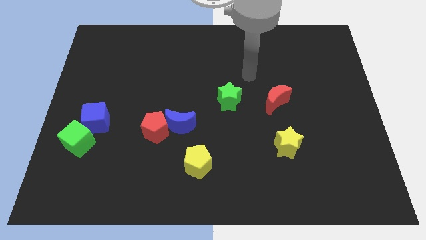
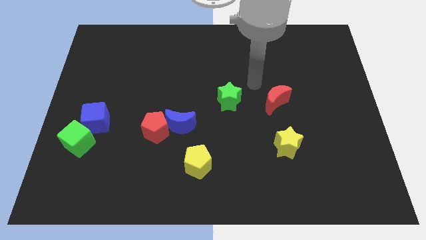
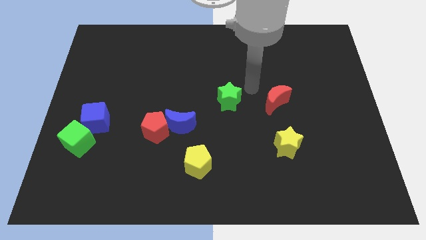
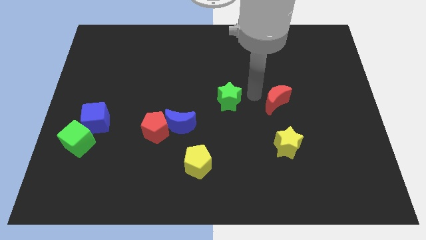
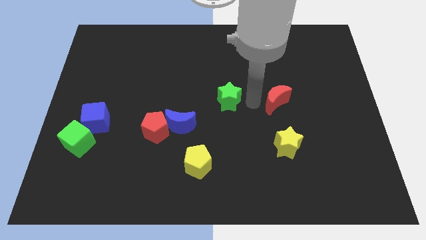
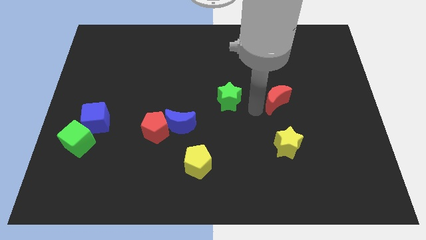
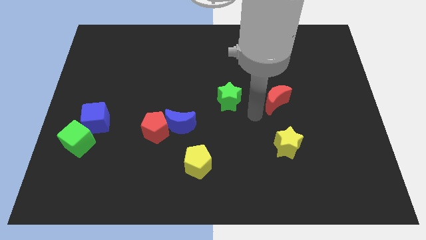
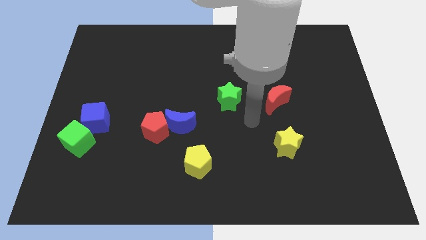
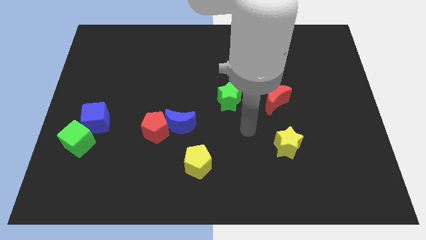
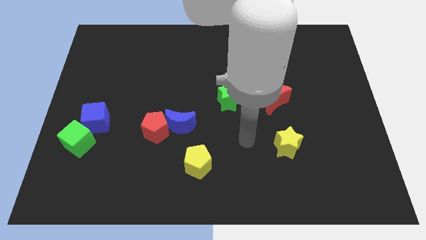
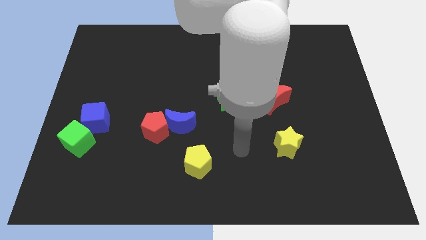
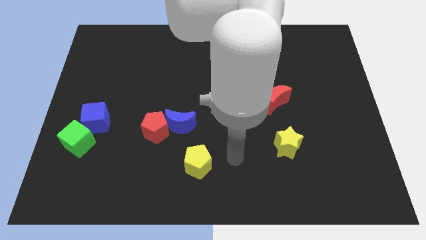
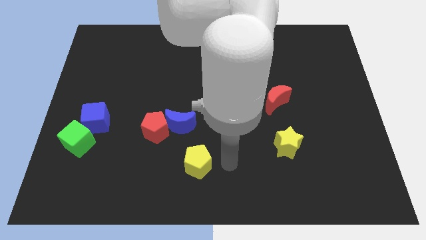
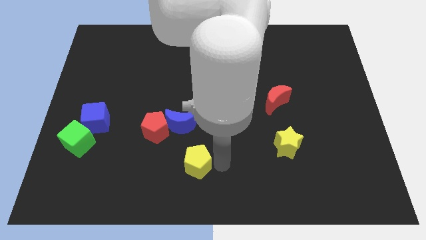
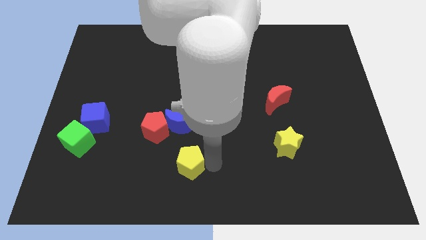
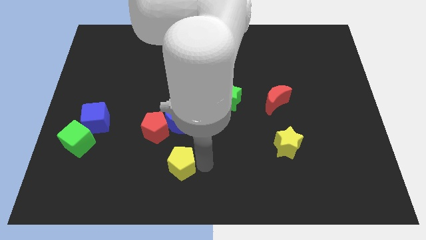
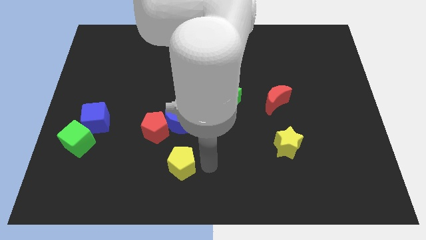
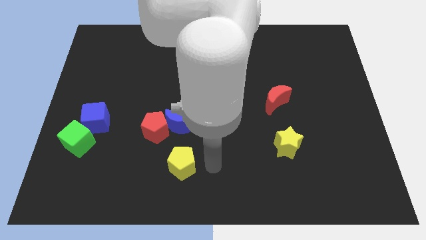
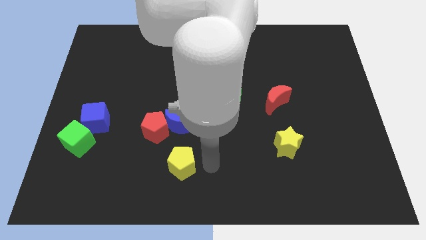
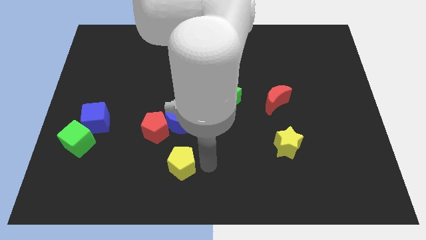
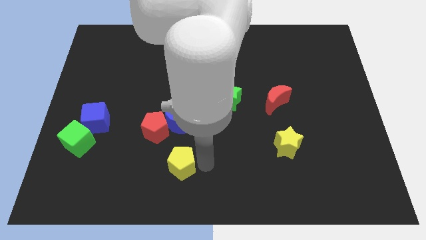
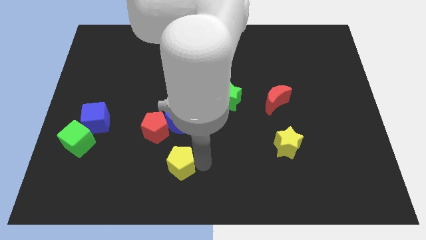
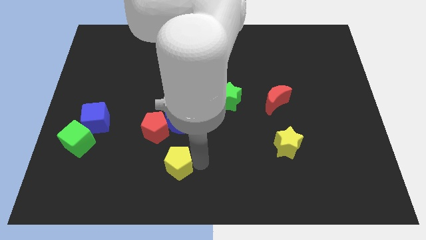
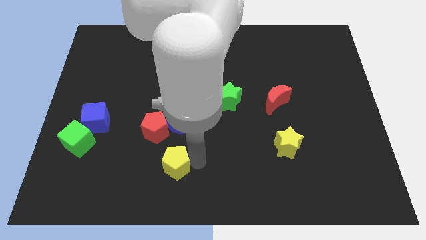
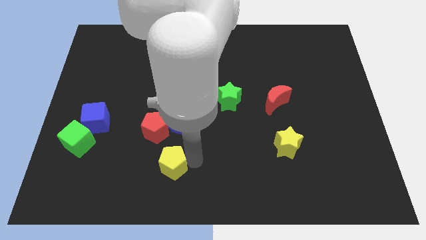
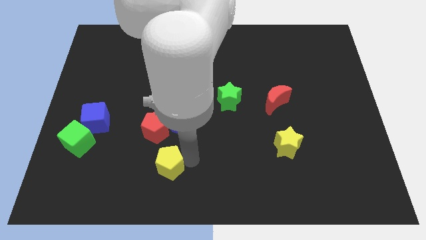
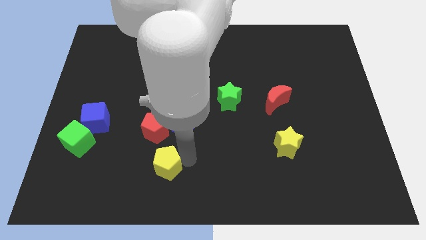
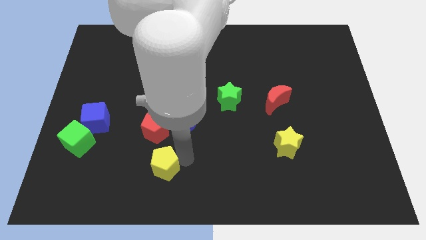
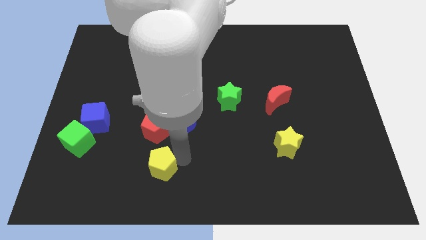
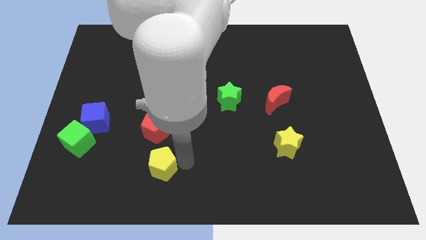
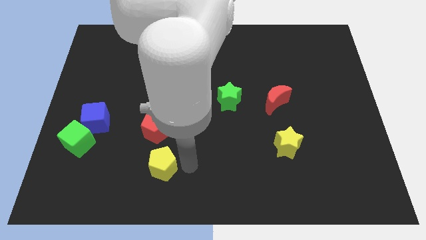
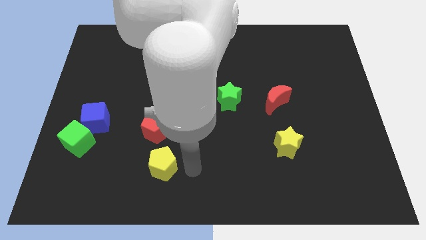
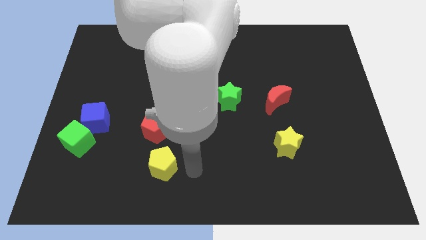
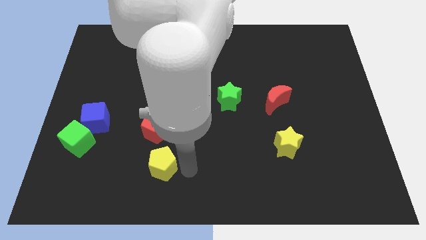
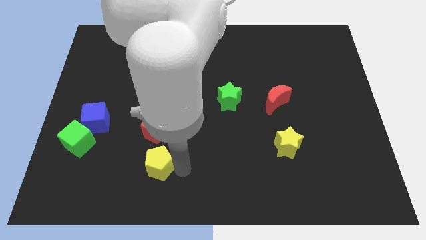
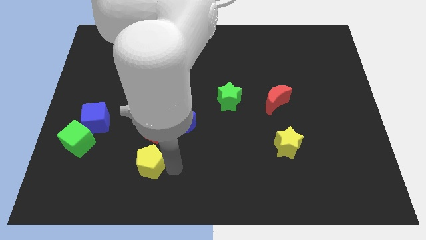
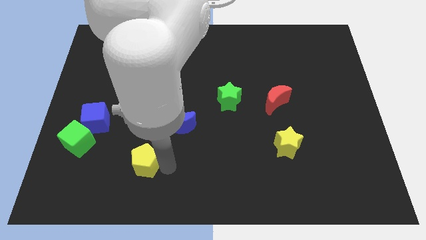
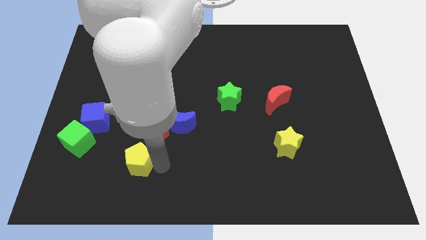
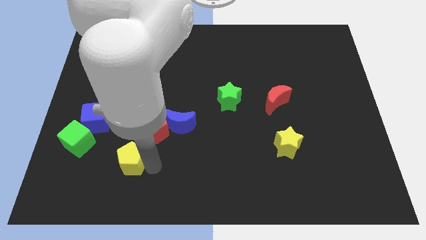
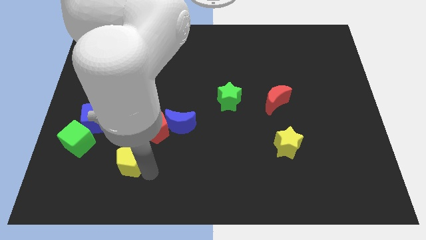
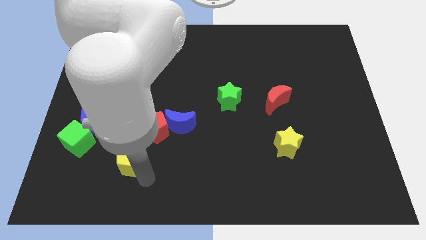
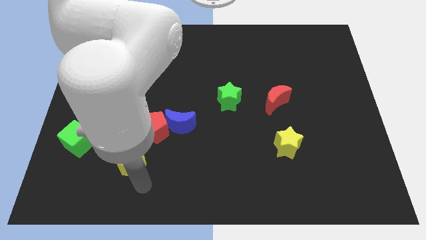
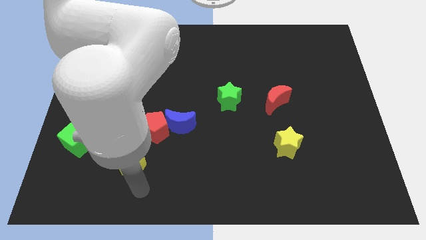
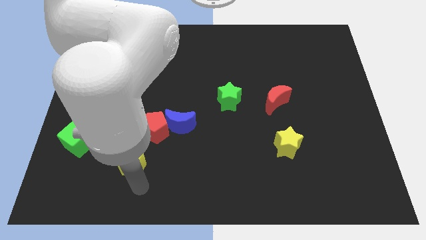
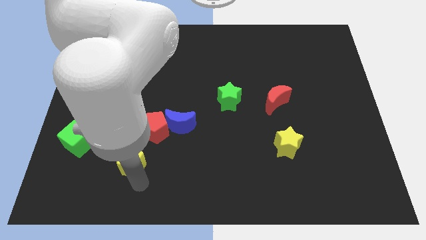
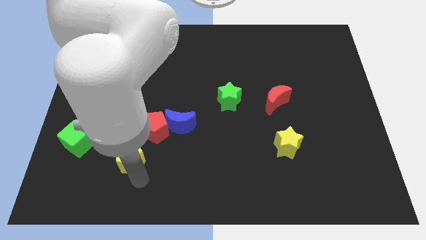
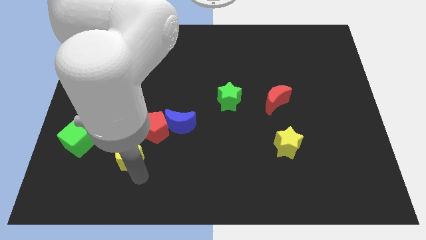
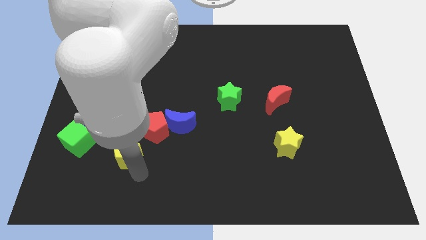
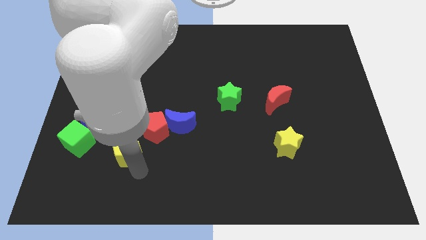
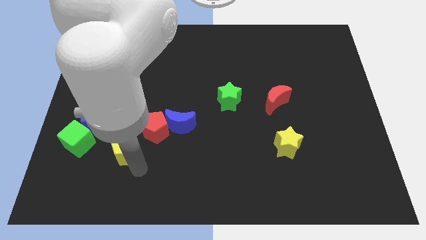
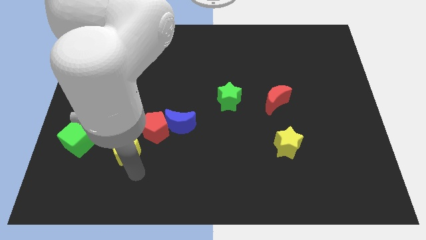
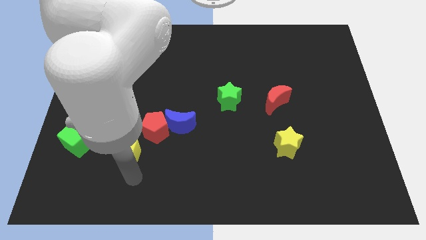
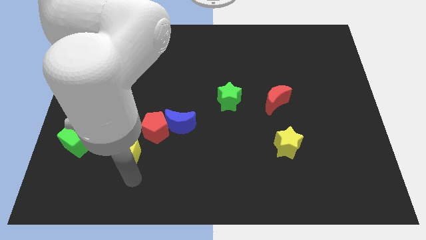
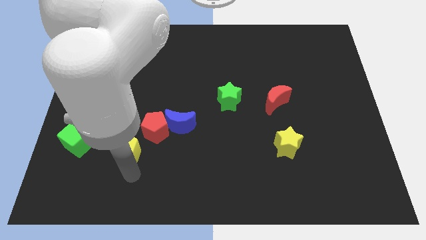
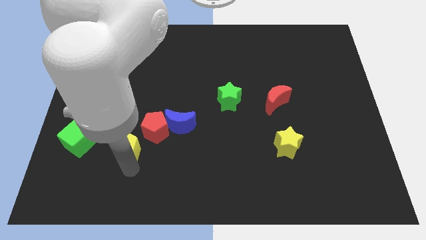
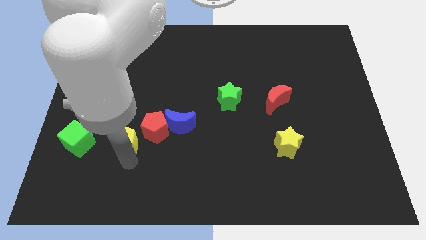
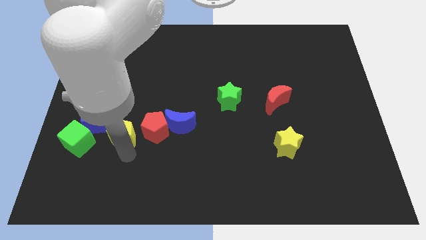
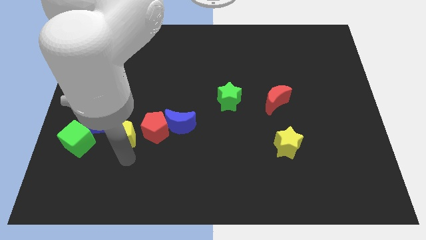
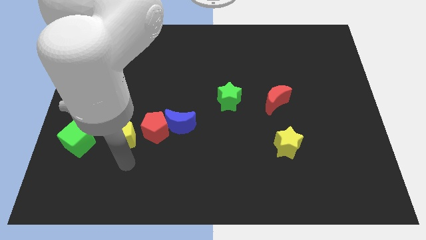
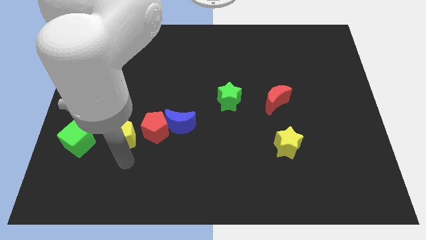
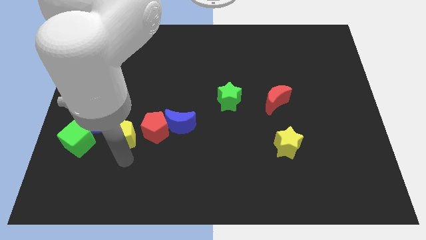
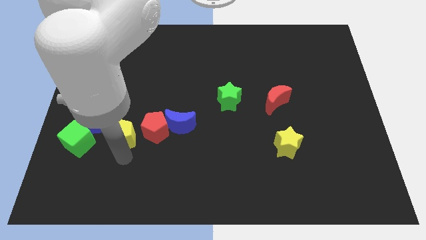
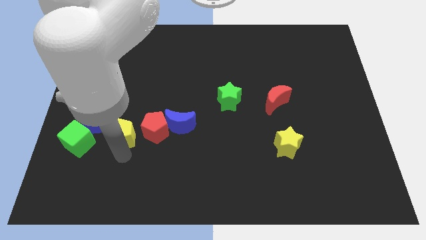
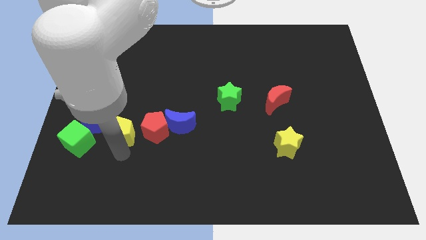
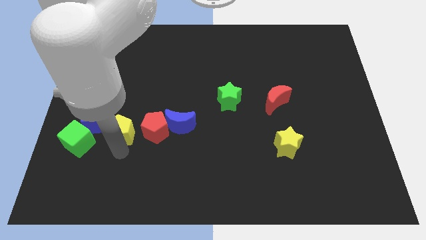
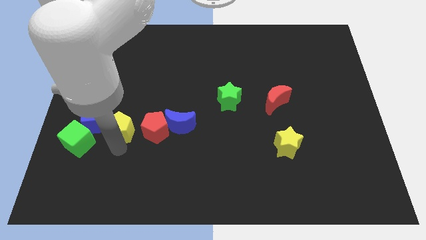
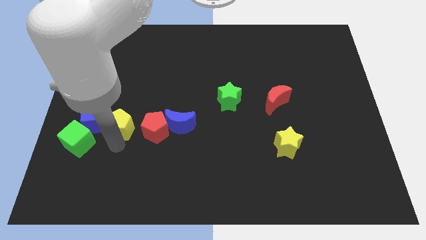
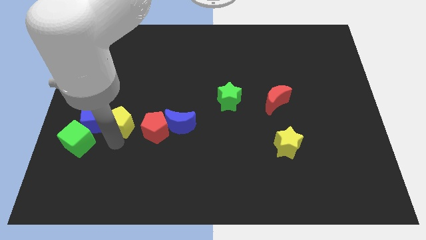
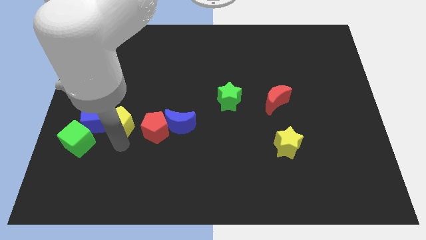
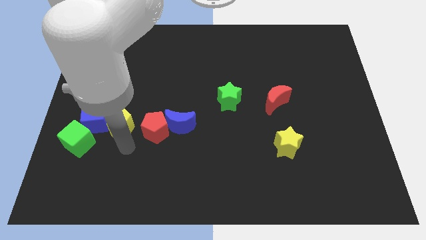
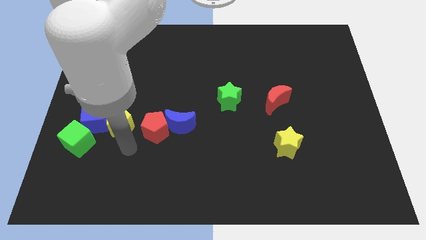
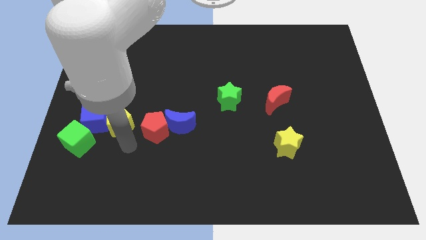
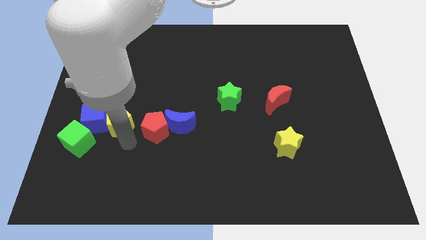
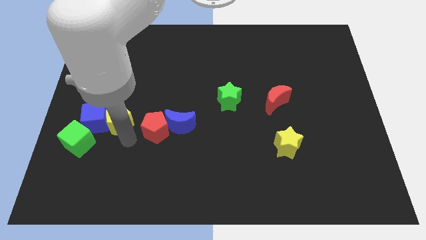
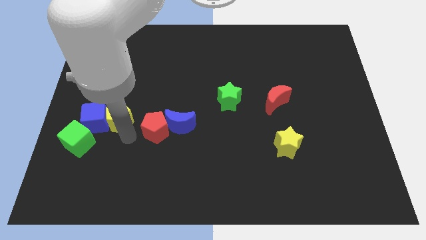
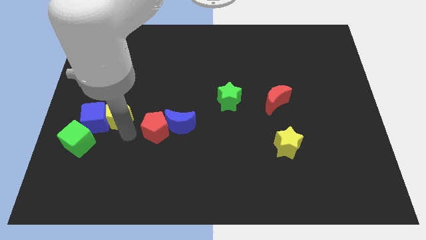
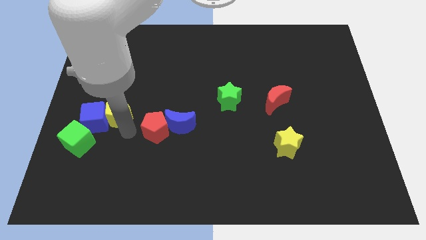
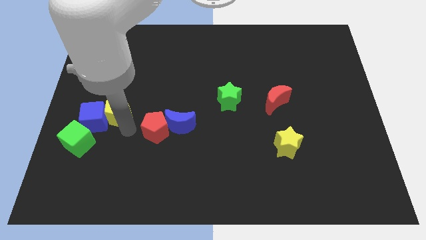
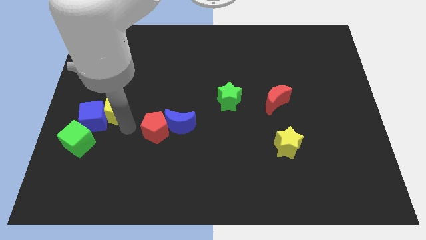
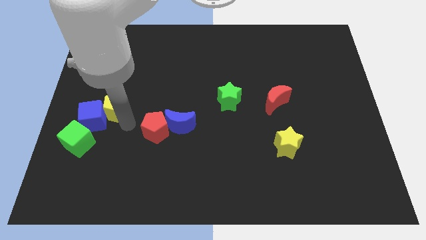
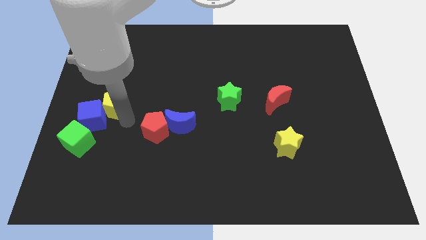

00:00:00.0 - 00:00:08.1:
put the yellow pentagon above the blue cube

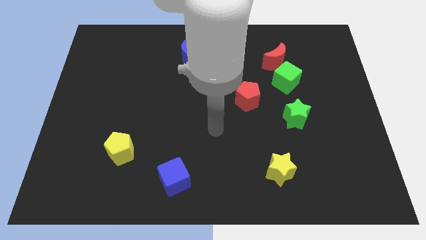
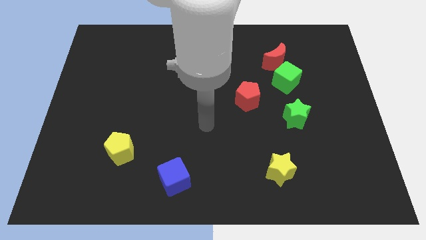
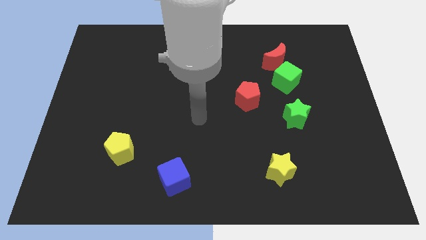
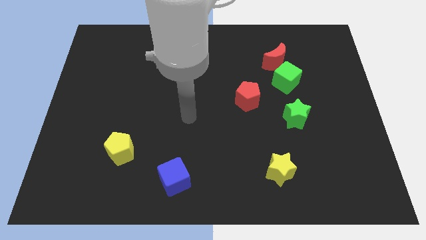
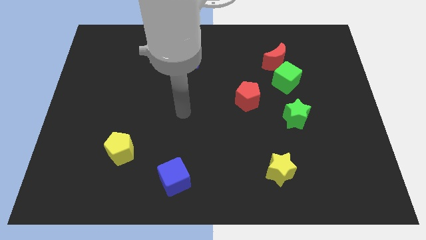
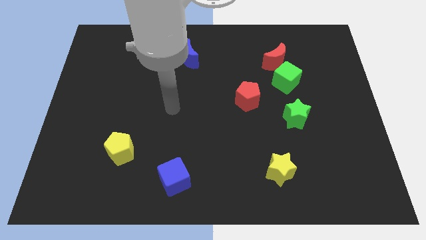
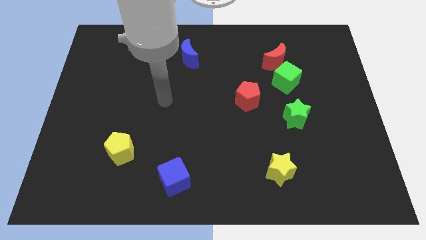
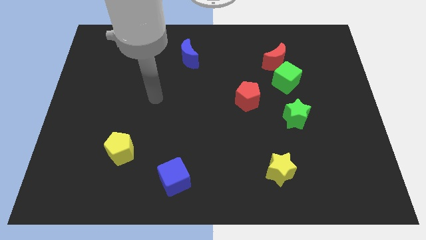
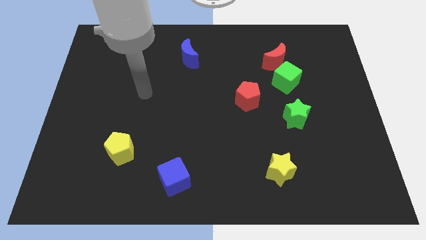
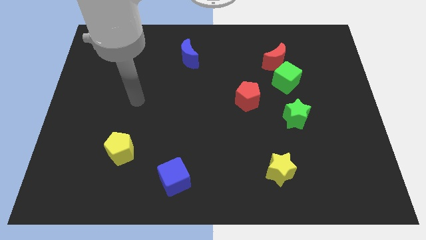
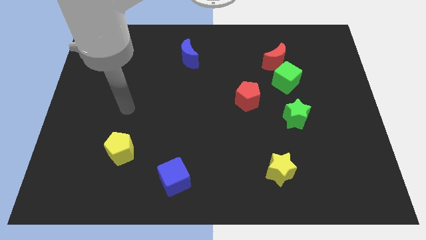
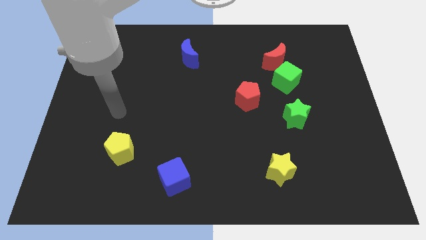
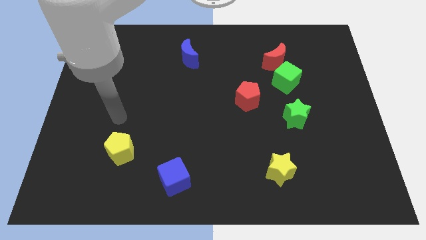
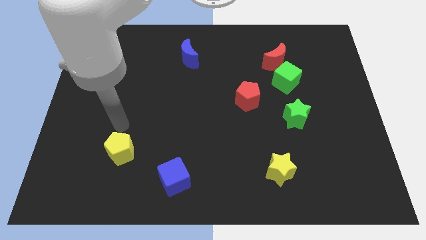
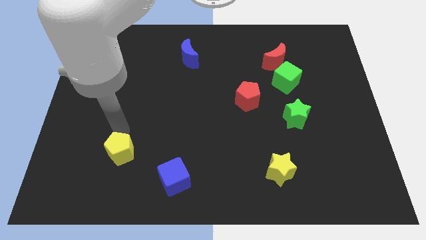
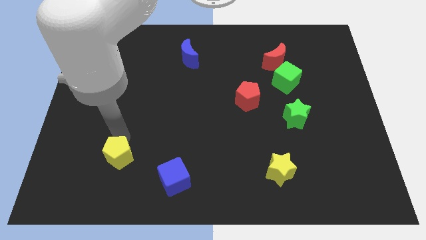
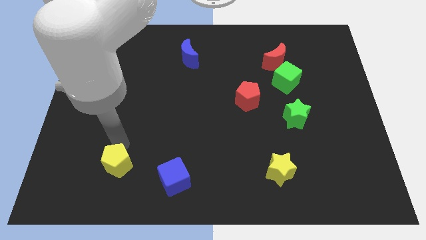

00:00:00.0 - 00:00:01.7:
slide the yellow pentagon to the left of the blue cube
